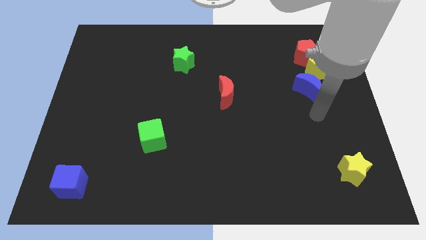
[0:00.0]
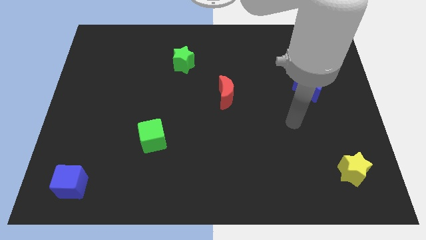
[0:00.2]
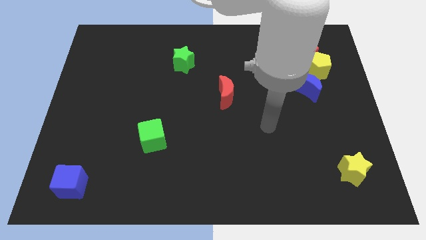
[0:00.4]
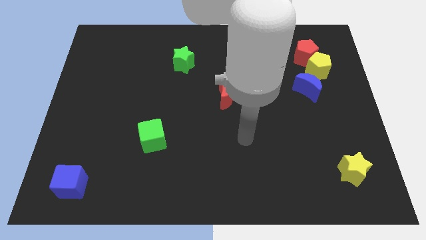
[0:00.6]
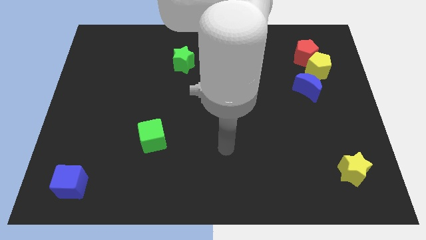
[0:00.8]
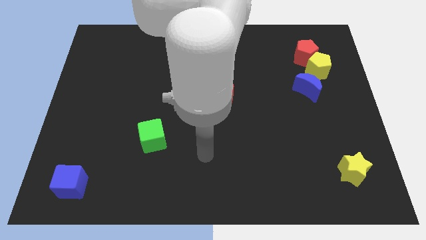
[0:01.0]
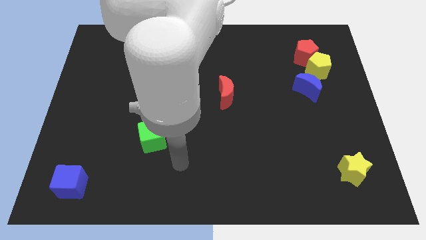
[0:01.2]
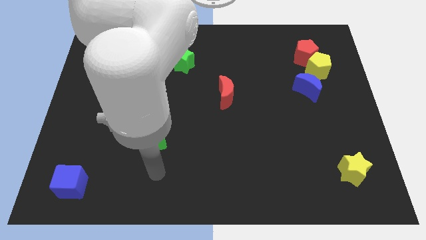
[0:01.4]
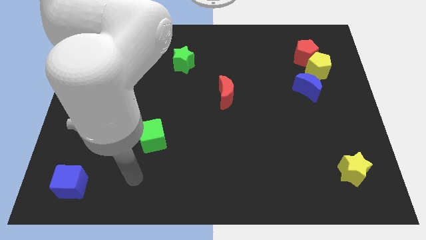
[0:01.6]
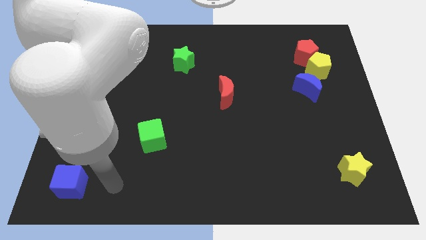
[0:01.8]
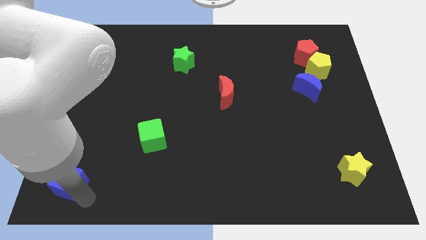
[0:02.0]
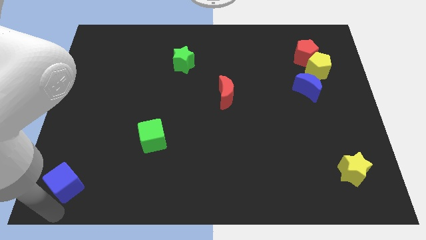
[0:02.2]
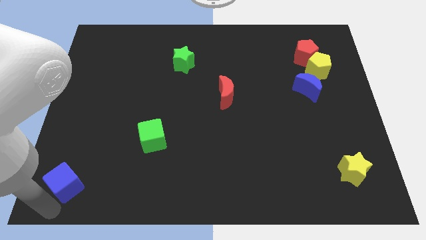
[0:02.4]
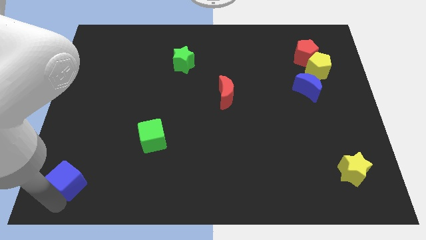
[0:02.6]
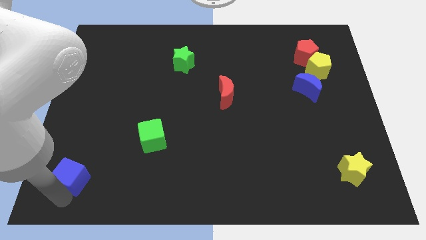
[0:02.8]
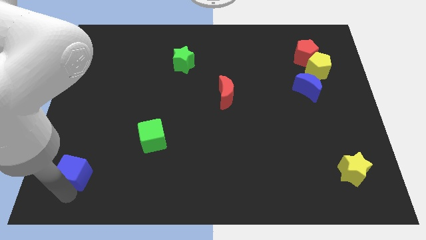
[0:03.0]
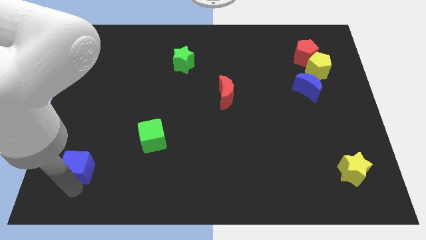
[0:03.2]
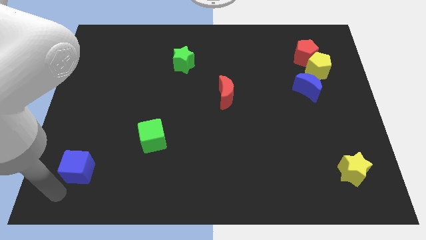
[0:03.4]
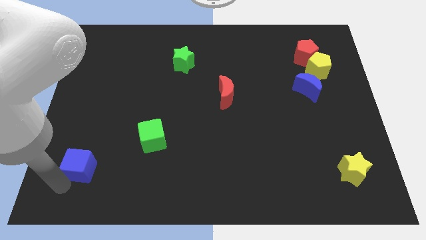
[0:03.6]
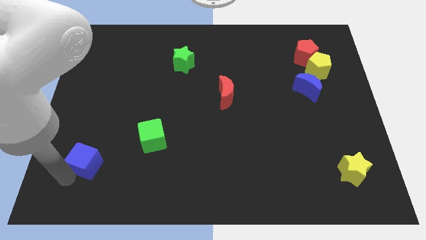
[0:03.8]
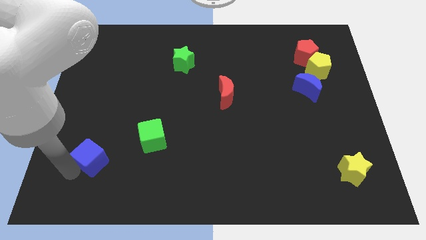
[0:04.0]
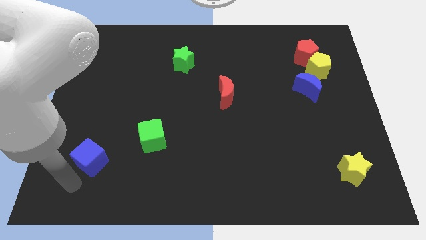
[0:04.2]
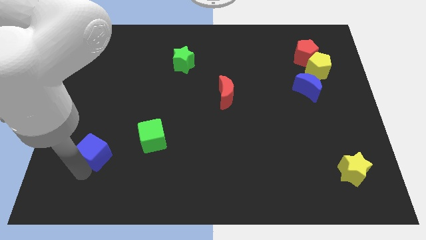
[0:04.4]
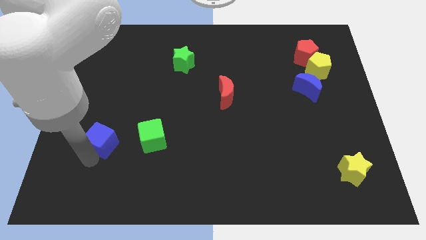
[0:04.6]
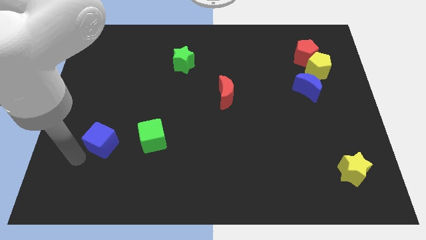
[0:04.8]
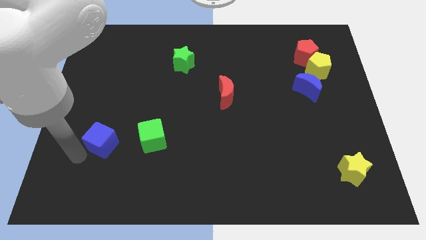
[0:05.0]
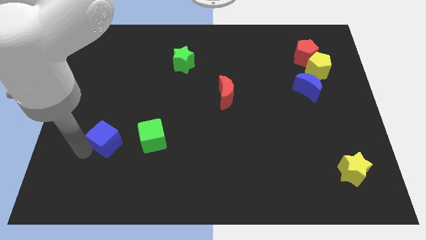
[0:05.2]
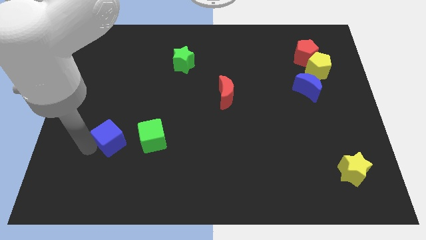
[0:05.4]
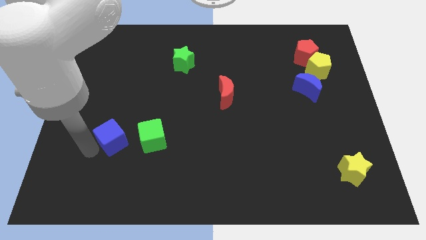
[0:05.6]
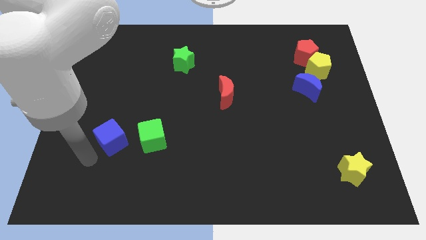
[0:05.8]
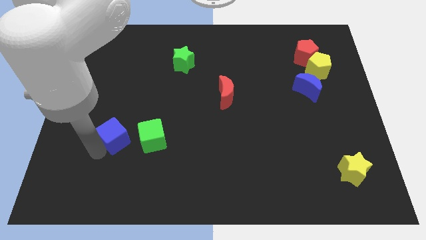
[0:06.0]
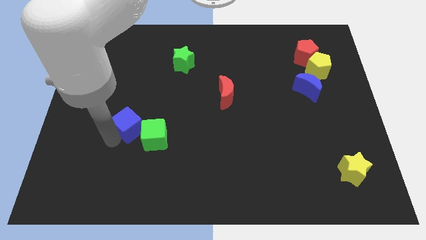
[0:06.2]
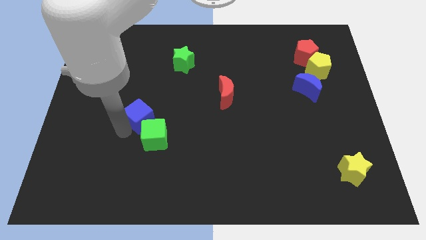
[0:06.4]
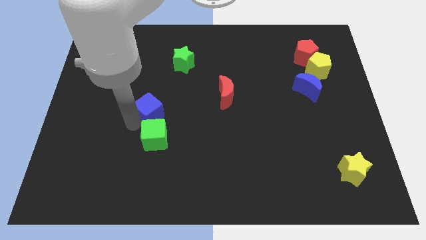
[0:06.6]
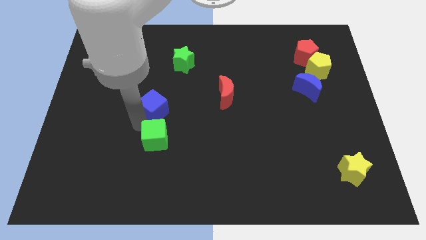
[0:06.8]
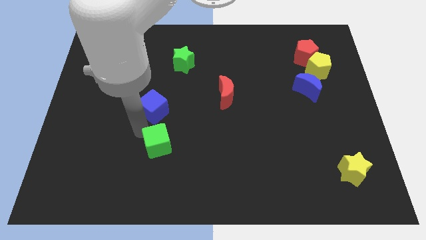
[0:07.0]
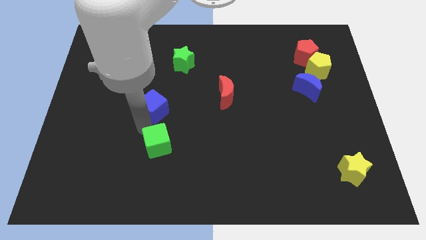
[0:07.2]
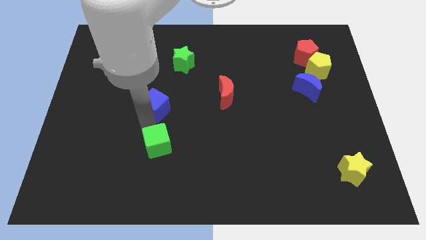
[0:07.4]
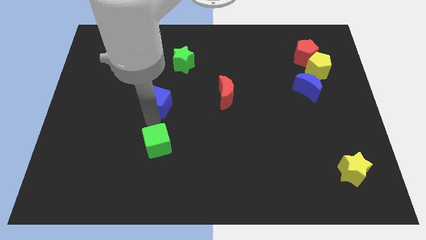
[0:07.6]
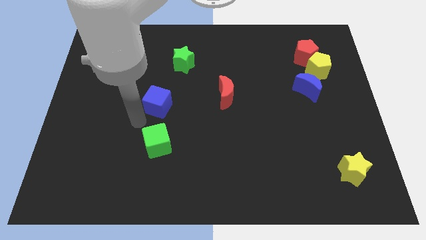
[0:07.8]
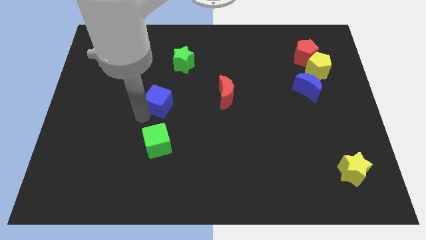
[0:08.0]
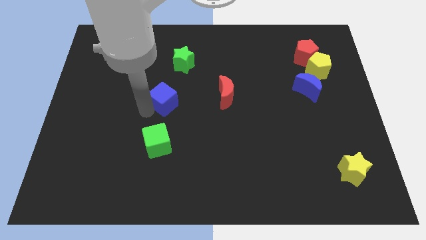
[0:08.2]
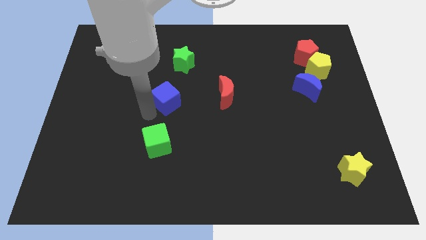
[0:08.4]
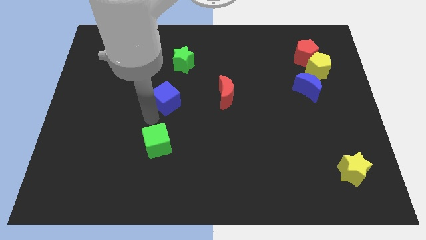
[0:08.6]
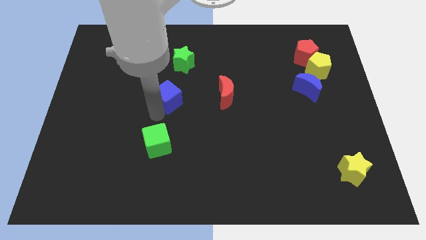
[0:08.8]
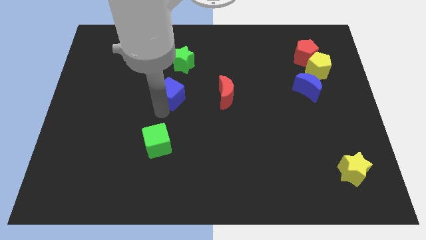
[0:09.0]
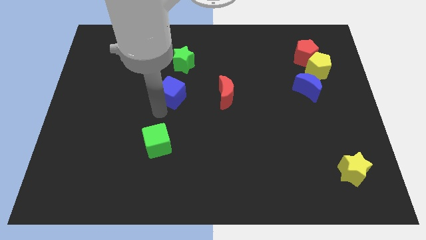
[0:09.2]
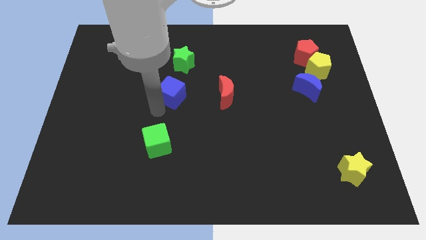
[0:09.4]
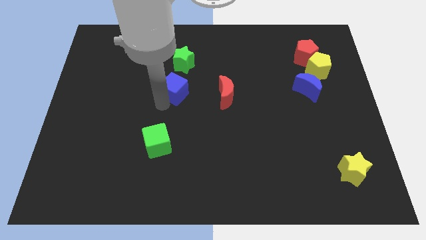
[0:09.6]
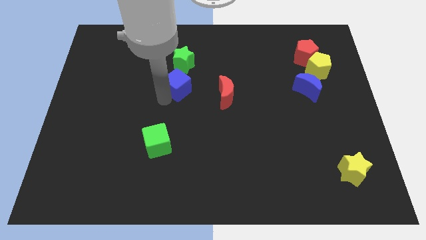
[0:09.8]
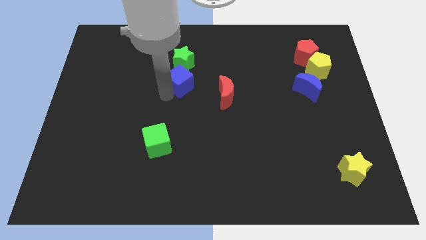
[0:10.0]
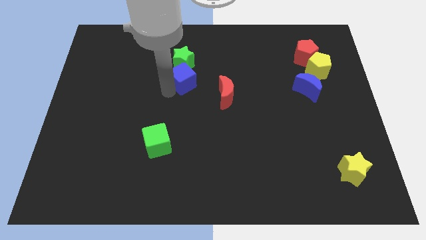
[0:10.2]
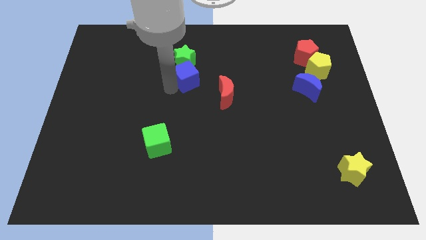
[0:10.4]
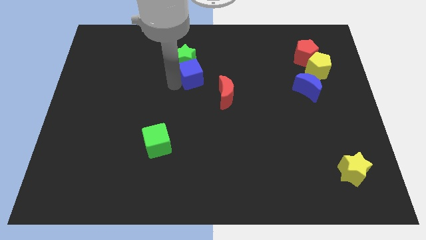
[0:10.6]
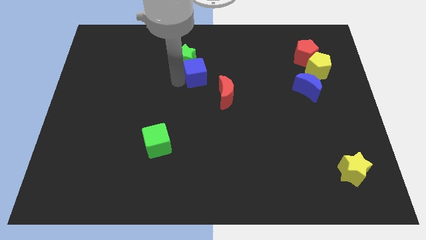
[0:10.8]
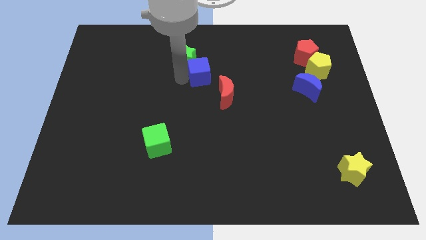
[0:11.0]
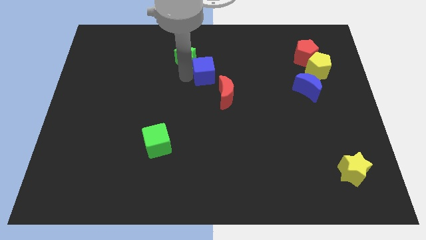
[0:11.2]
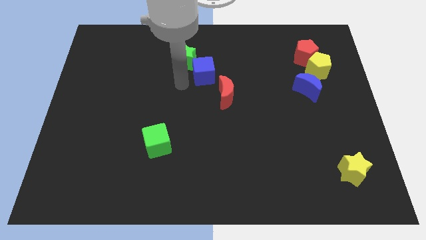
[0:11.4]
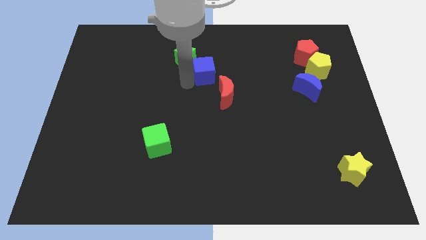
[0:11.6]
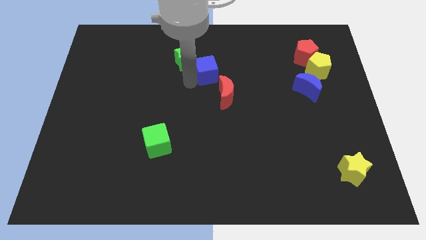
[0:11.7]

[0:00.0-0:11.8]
put the blue cube above the red moon

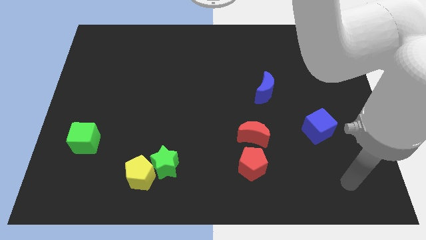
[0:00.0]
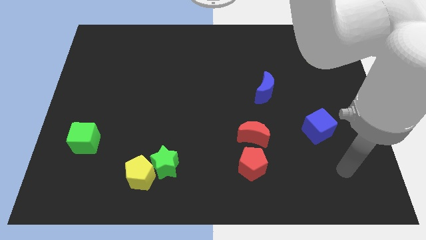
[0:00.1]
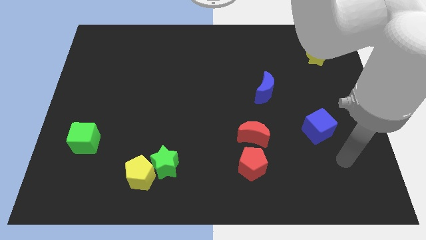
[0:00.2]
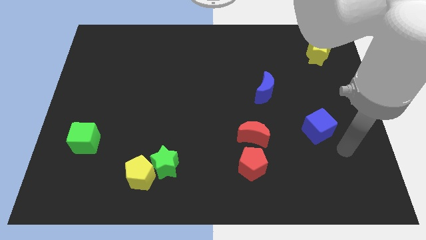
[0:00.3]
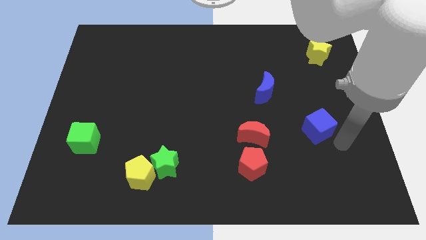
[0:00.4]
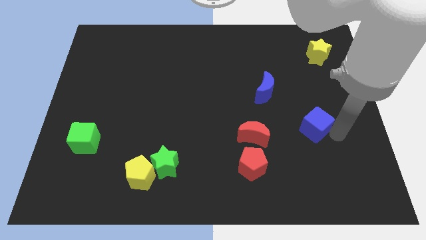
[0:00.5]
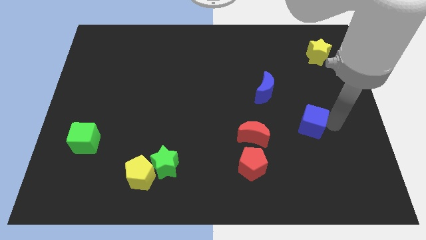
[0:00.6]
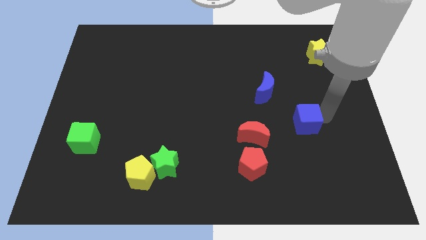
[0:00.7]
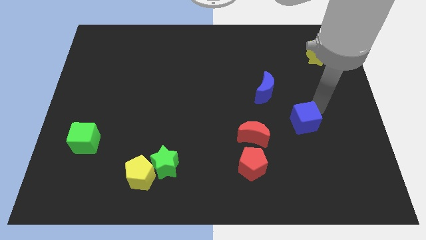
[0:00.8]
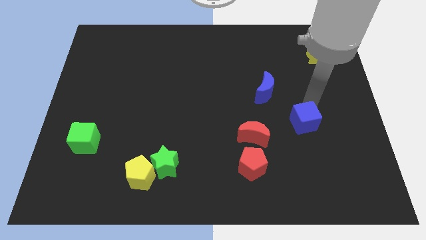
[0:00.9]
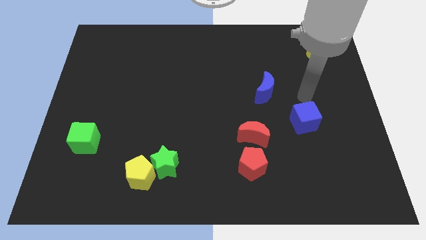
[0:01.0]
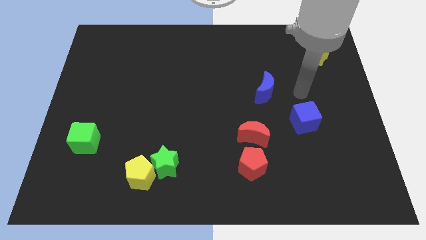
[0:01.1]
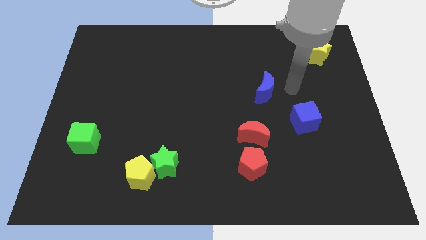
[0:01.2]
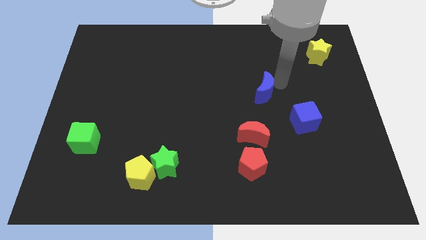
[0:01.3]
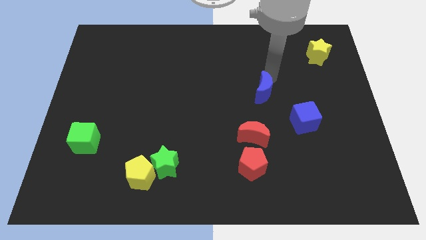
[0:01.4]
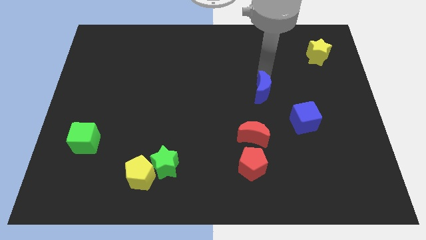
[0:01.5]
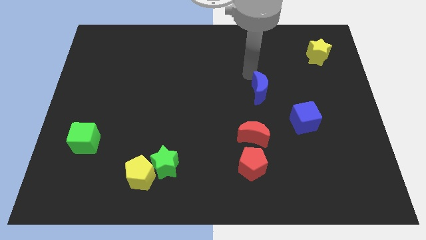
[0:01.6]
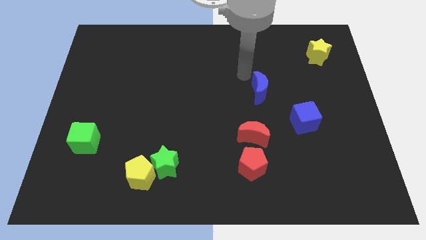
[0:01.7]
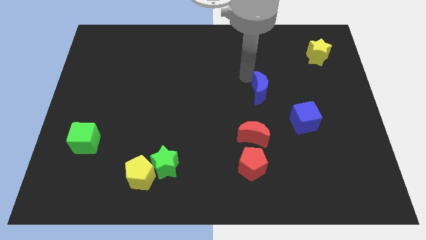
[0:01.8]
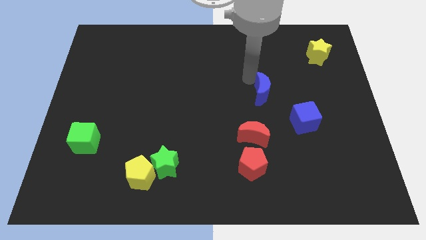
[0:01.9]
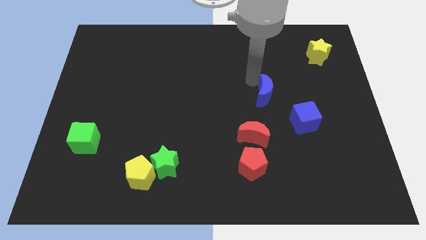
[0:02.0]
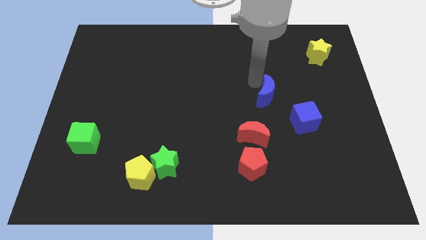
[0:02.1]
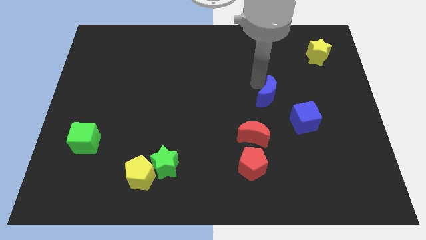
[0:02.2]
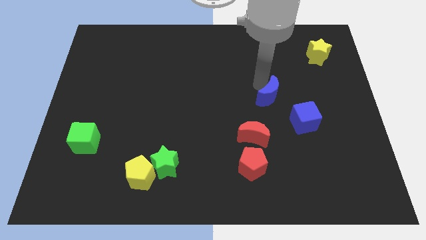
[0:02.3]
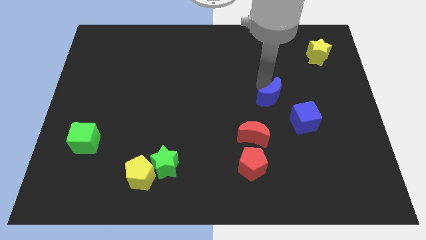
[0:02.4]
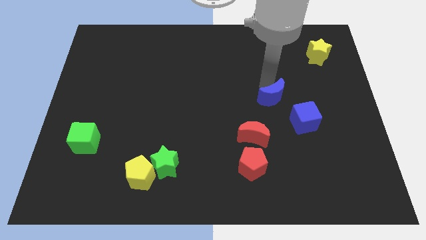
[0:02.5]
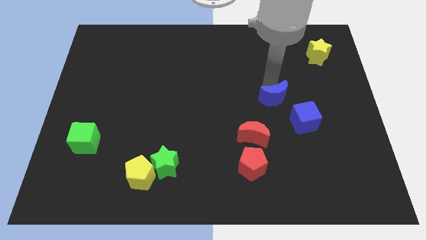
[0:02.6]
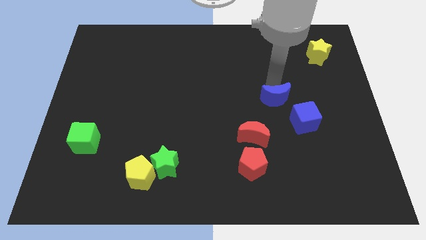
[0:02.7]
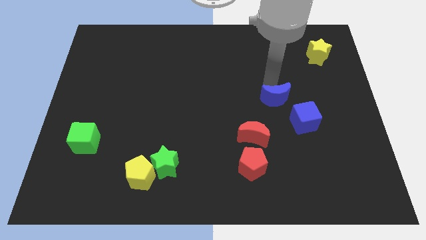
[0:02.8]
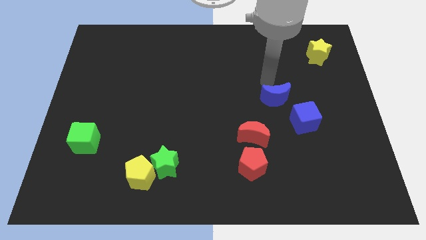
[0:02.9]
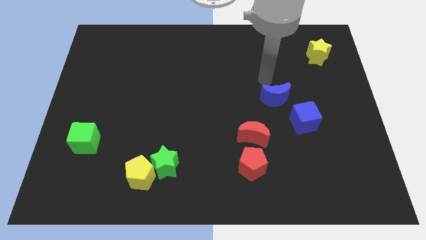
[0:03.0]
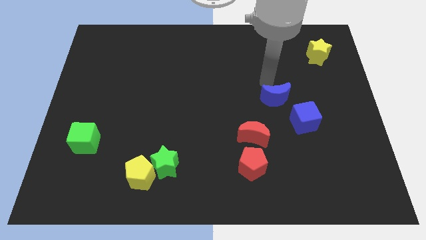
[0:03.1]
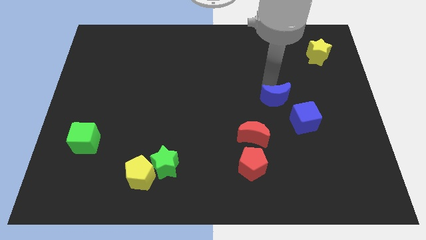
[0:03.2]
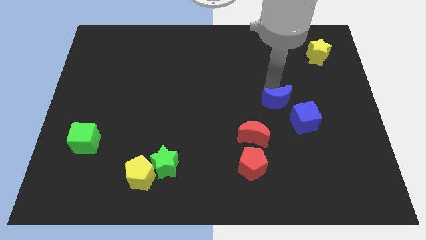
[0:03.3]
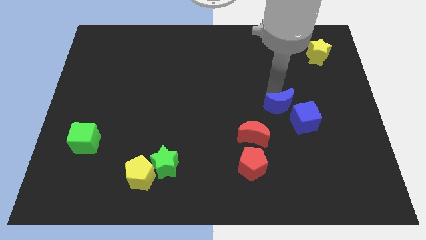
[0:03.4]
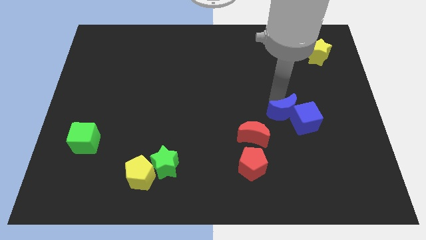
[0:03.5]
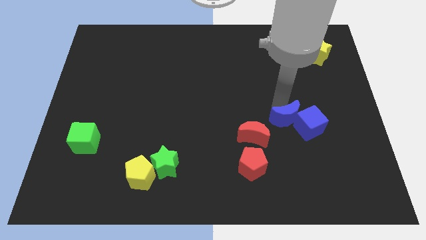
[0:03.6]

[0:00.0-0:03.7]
slide the blue moon to the right side of the red moon
